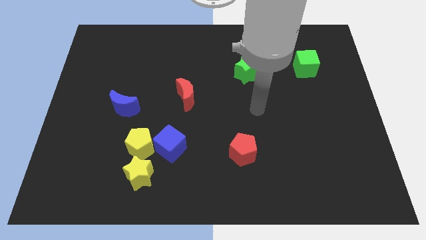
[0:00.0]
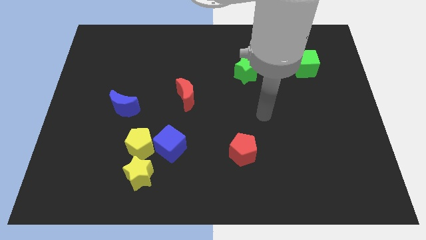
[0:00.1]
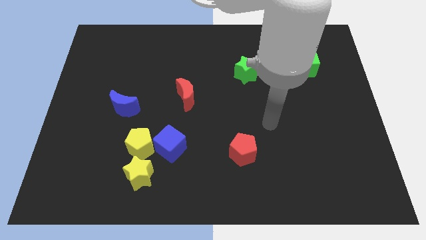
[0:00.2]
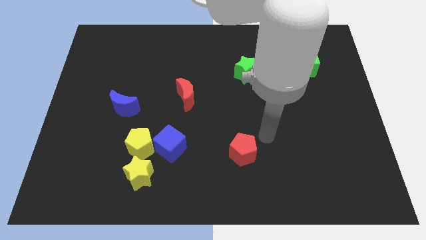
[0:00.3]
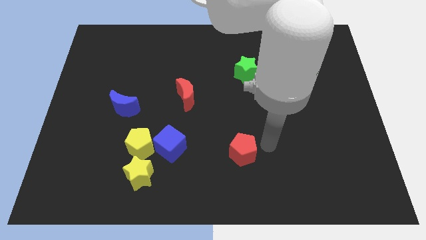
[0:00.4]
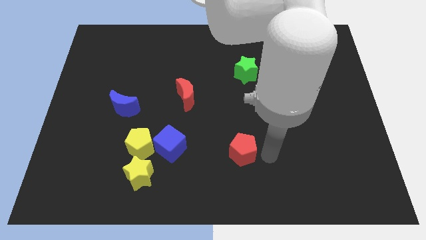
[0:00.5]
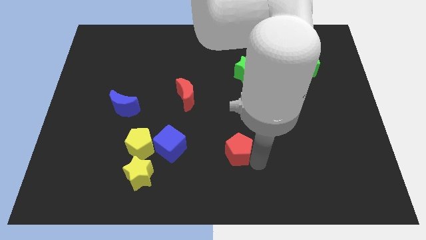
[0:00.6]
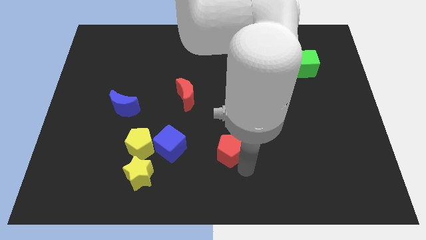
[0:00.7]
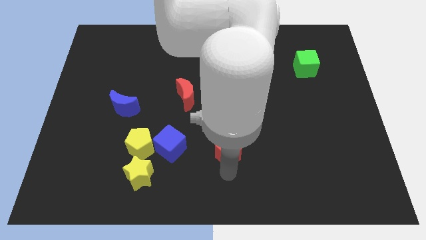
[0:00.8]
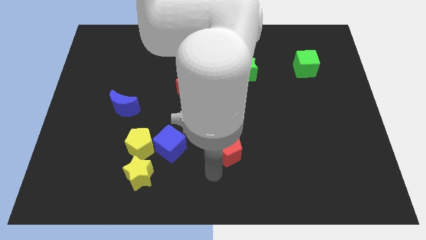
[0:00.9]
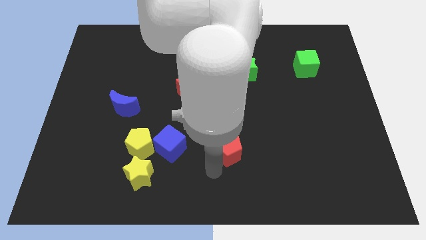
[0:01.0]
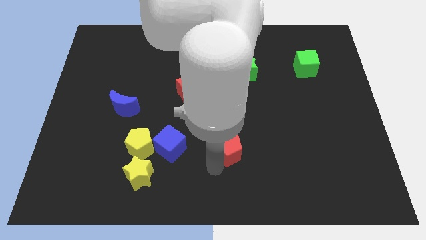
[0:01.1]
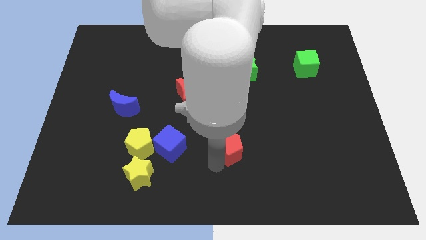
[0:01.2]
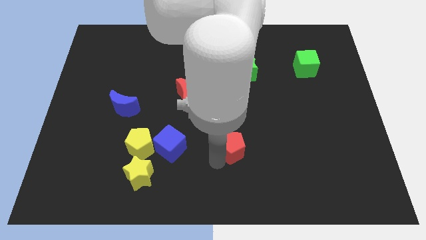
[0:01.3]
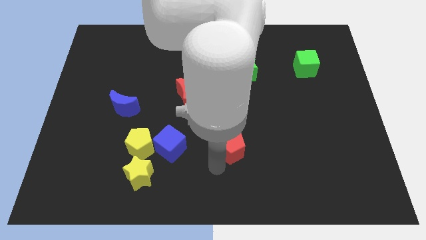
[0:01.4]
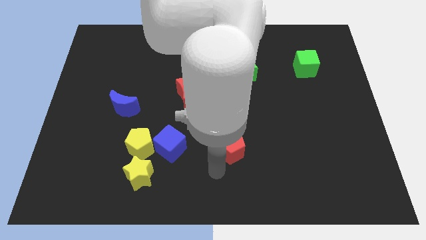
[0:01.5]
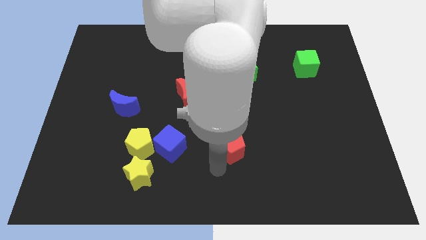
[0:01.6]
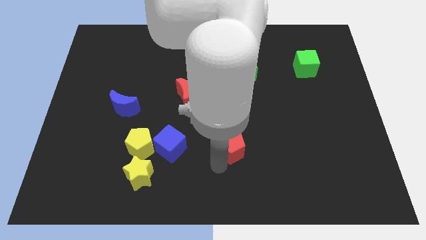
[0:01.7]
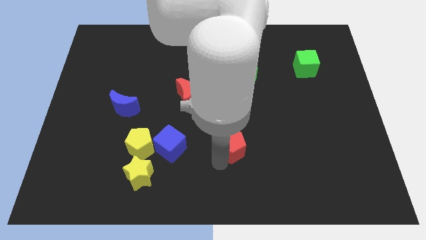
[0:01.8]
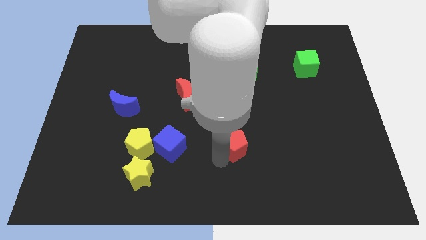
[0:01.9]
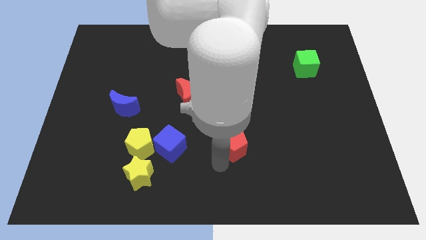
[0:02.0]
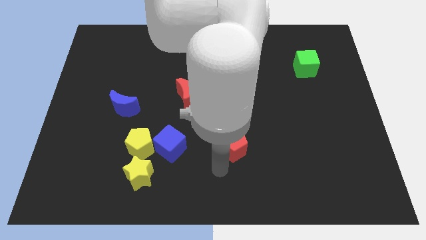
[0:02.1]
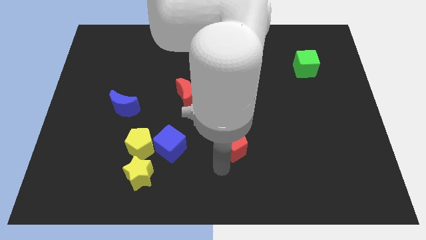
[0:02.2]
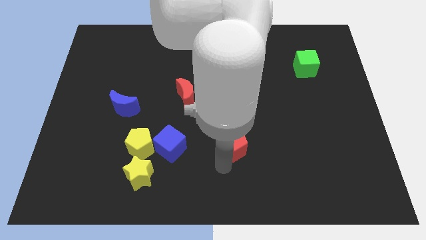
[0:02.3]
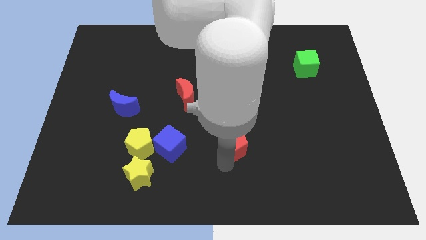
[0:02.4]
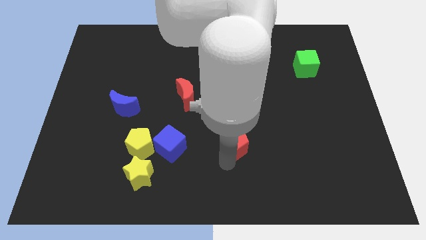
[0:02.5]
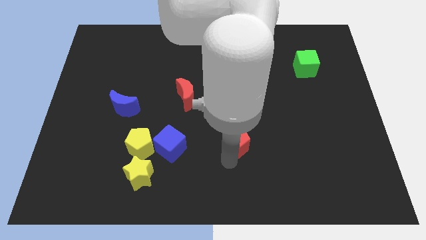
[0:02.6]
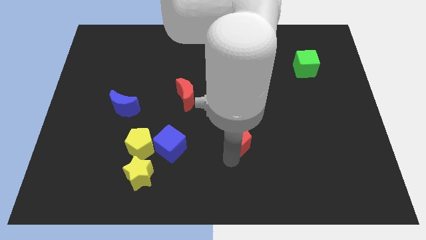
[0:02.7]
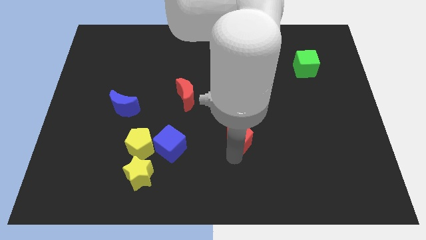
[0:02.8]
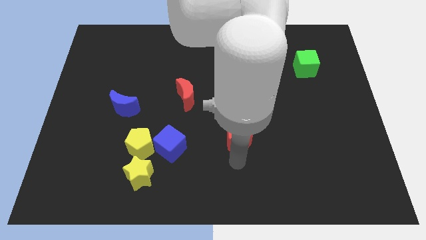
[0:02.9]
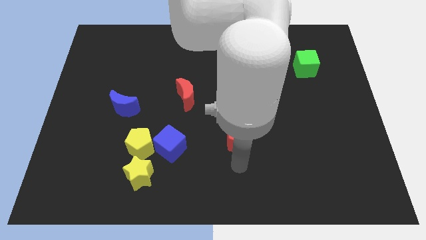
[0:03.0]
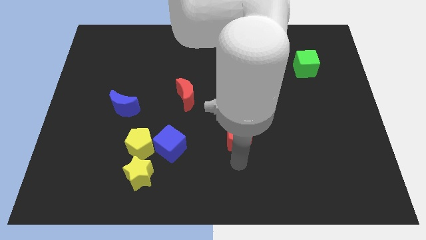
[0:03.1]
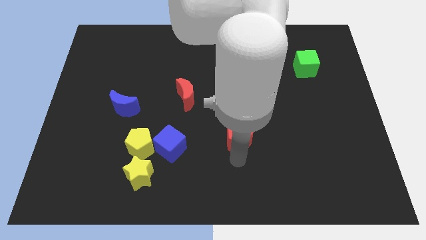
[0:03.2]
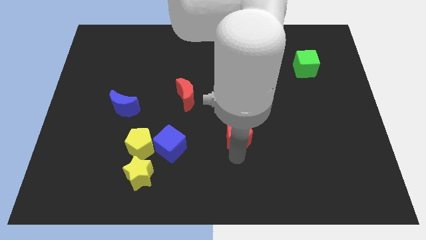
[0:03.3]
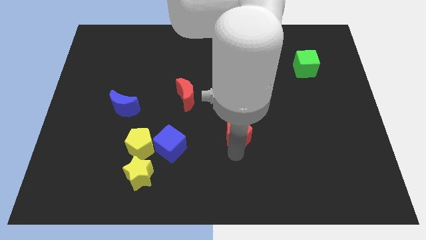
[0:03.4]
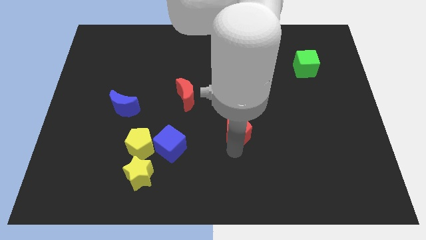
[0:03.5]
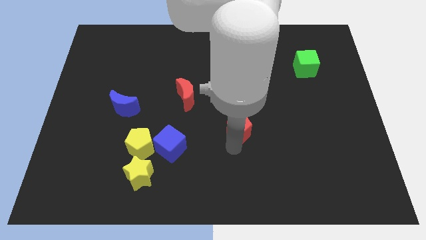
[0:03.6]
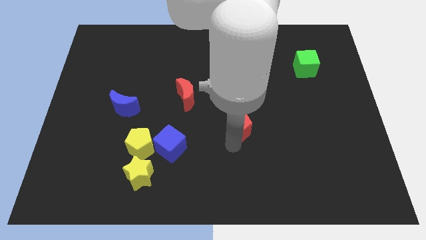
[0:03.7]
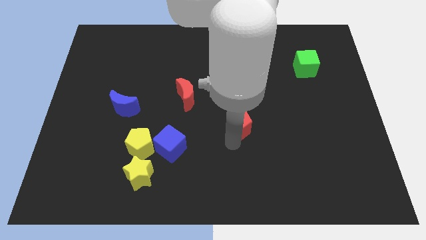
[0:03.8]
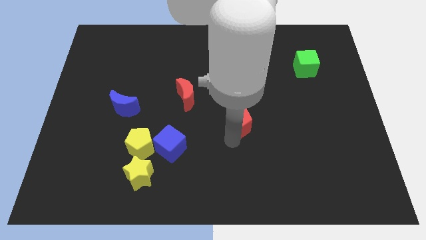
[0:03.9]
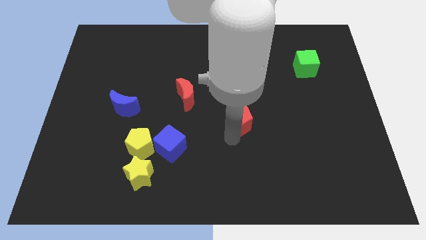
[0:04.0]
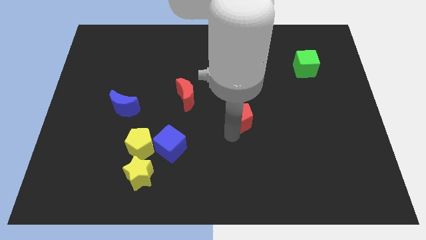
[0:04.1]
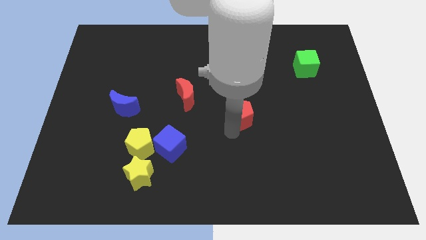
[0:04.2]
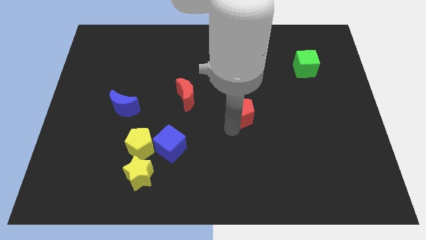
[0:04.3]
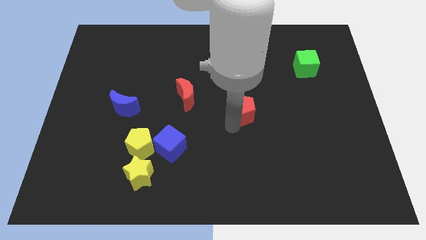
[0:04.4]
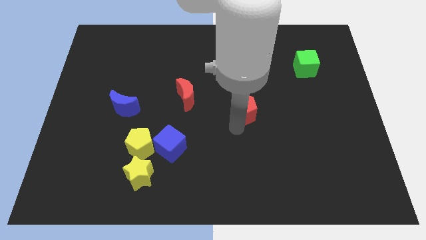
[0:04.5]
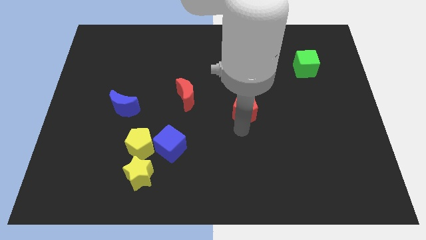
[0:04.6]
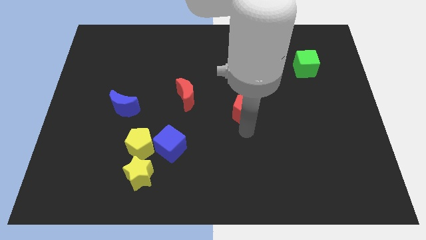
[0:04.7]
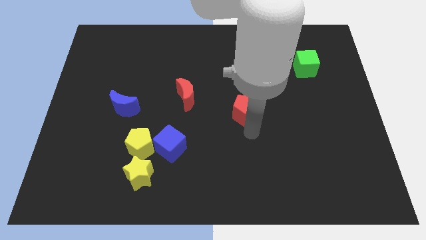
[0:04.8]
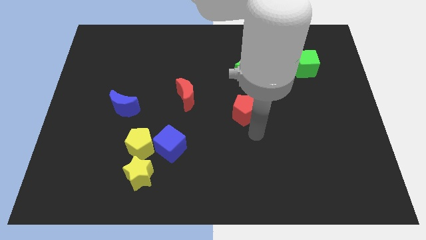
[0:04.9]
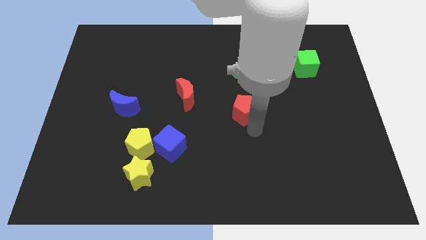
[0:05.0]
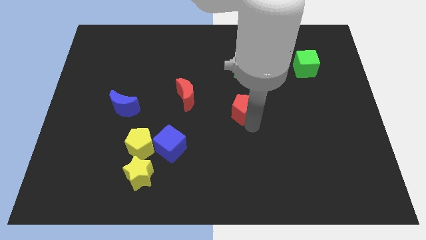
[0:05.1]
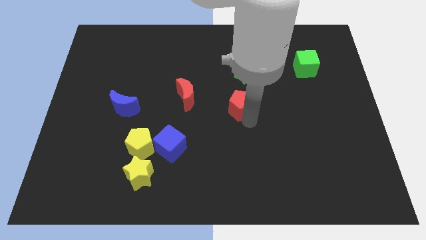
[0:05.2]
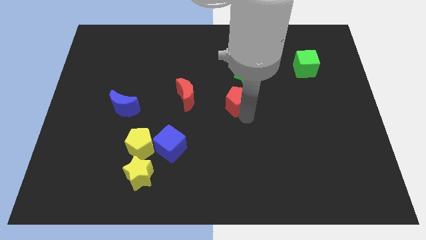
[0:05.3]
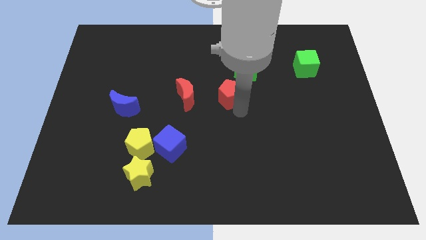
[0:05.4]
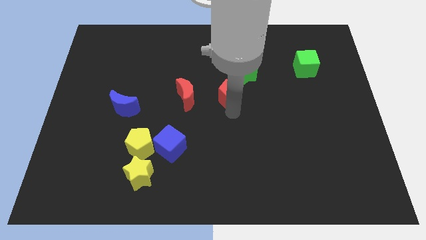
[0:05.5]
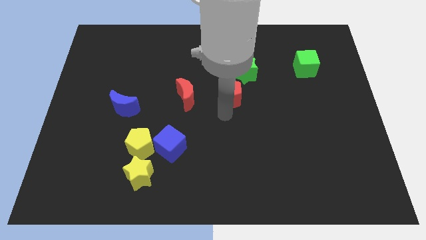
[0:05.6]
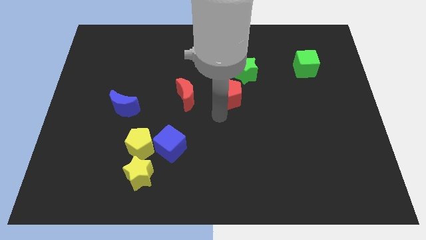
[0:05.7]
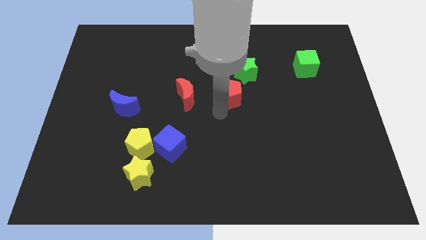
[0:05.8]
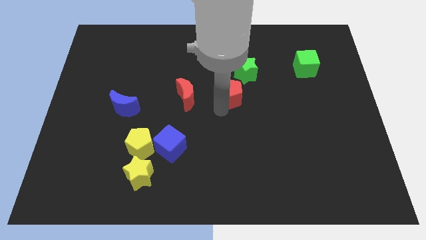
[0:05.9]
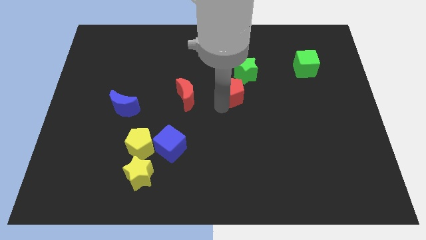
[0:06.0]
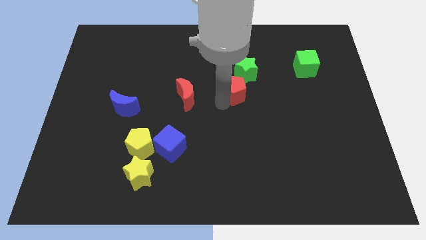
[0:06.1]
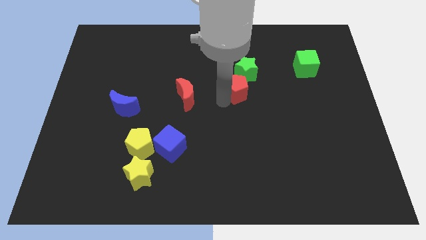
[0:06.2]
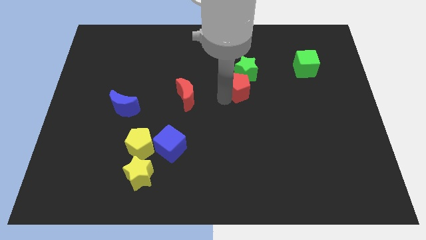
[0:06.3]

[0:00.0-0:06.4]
move the red pentagon towards the green star
